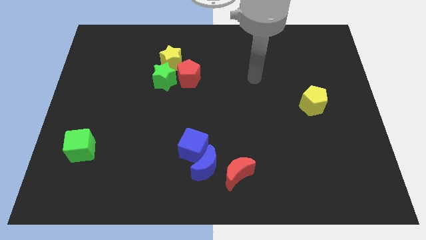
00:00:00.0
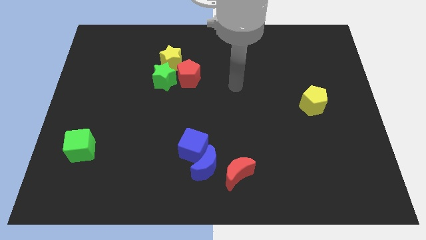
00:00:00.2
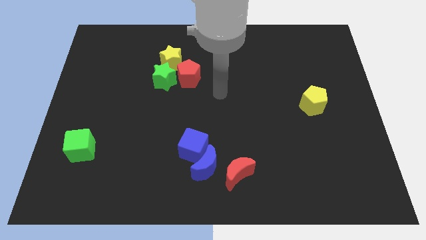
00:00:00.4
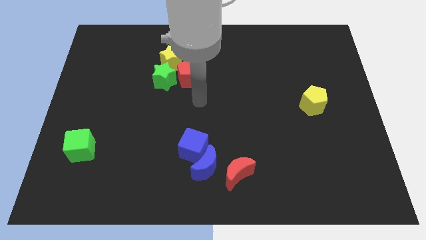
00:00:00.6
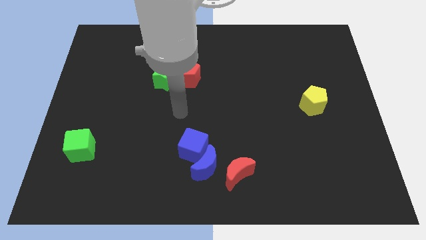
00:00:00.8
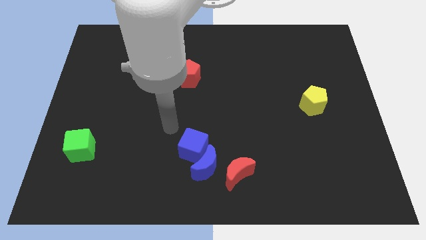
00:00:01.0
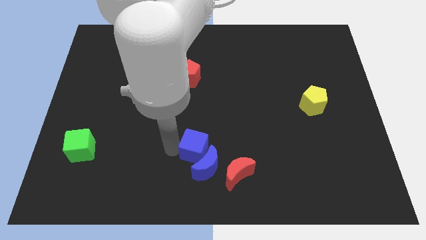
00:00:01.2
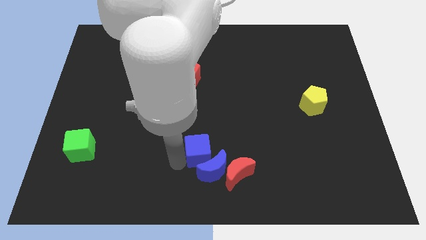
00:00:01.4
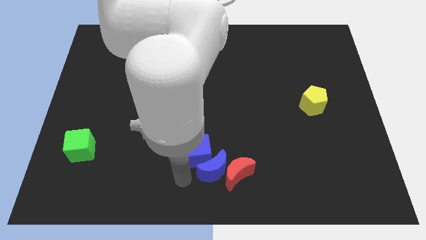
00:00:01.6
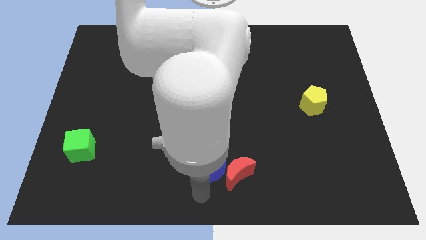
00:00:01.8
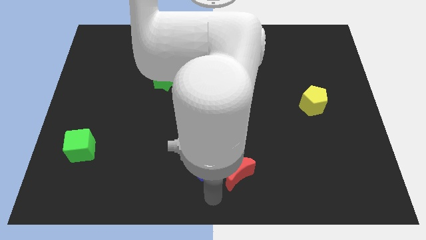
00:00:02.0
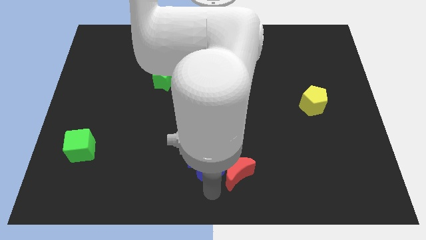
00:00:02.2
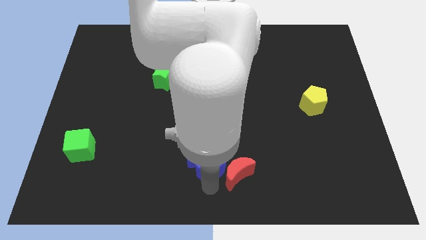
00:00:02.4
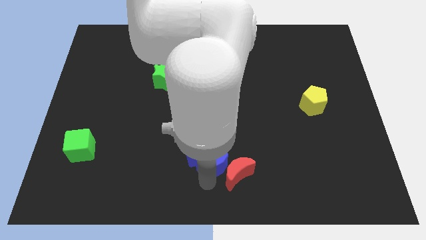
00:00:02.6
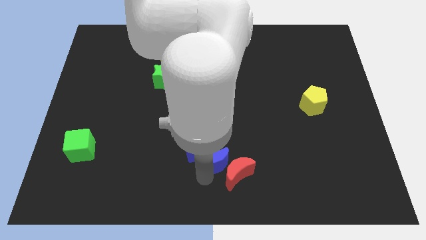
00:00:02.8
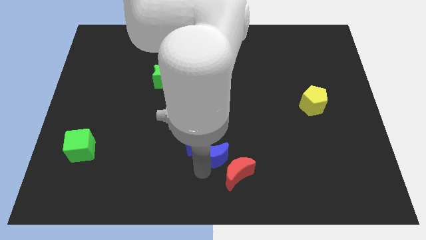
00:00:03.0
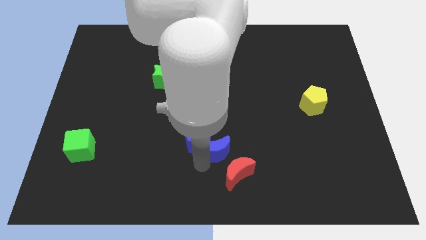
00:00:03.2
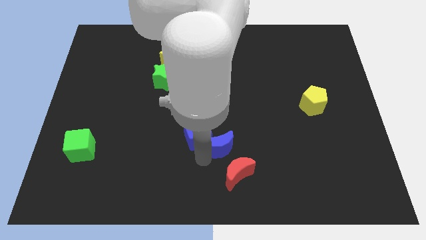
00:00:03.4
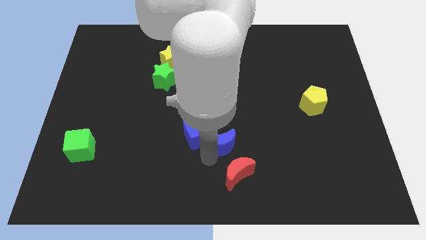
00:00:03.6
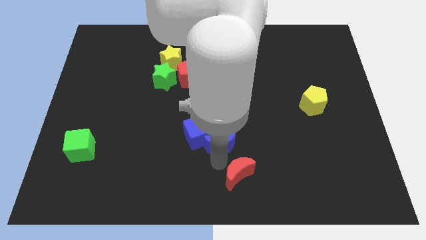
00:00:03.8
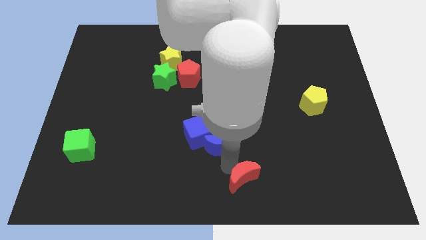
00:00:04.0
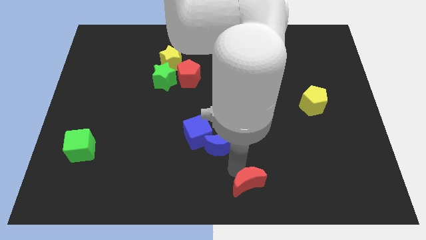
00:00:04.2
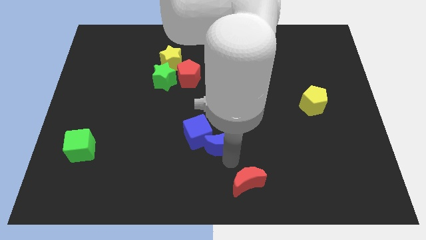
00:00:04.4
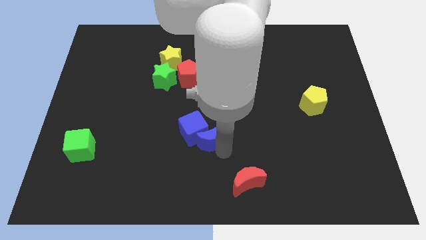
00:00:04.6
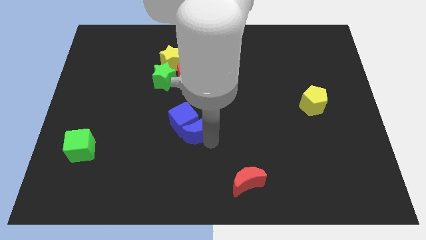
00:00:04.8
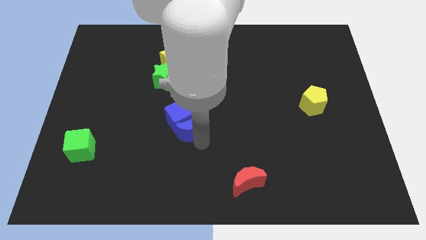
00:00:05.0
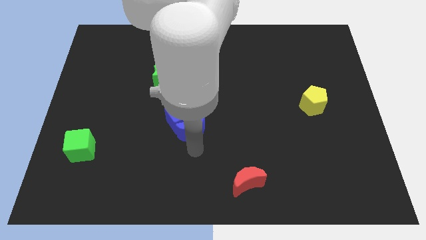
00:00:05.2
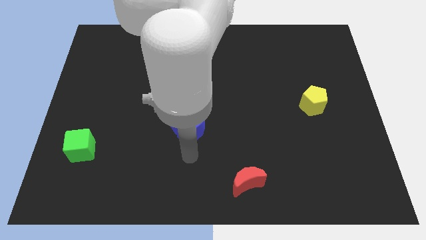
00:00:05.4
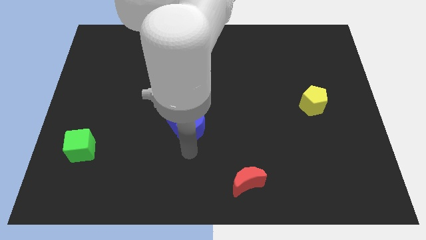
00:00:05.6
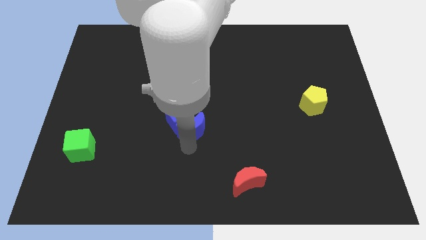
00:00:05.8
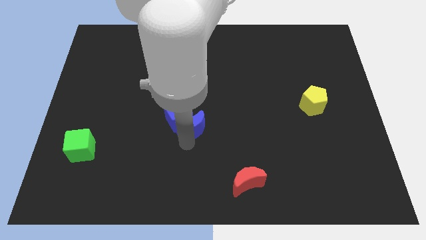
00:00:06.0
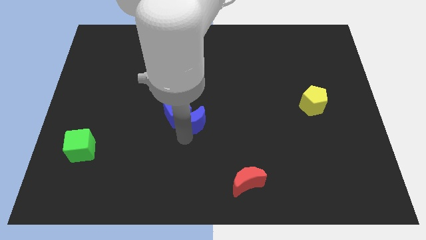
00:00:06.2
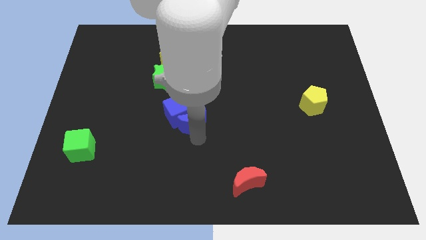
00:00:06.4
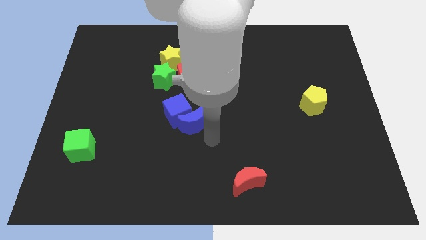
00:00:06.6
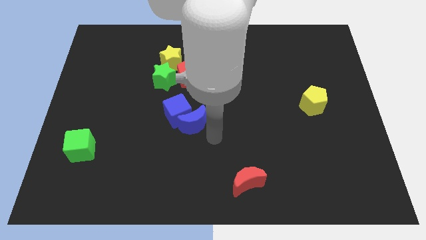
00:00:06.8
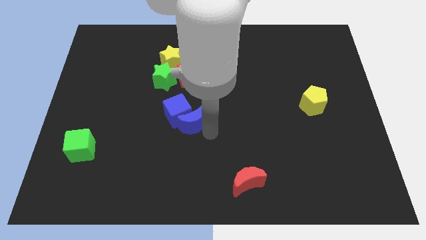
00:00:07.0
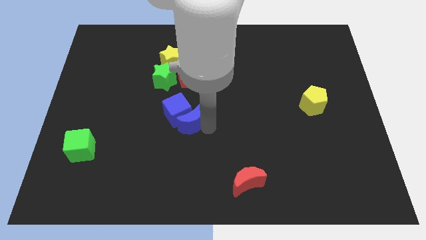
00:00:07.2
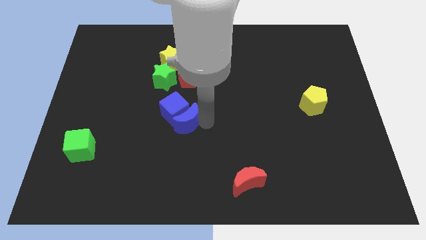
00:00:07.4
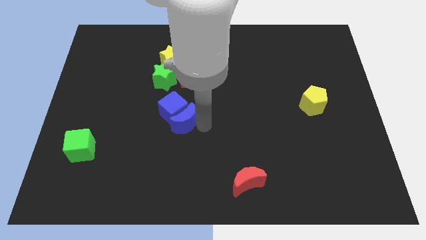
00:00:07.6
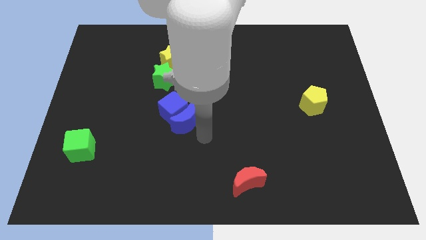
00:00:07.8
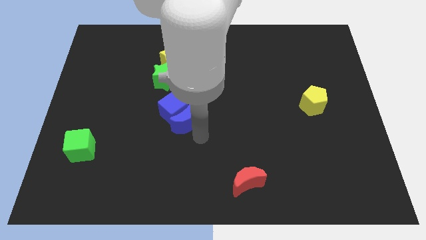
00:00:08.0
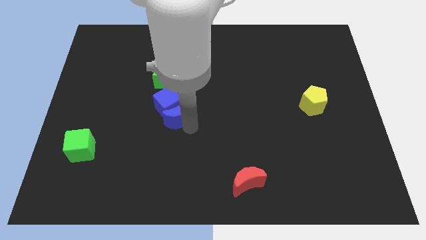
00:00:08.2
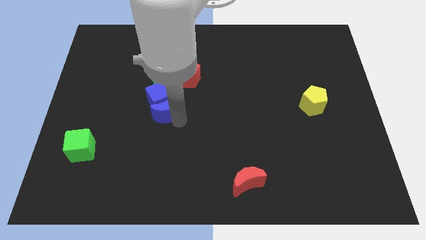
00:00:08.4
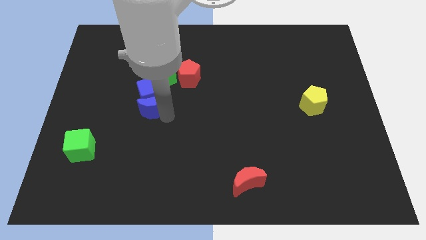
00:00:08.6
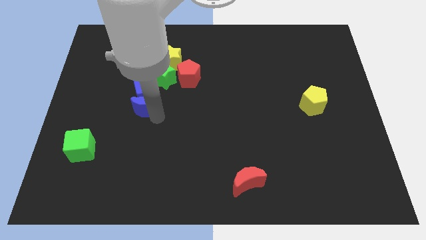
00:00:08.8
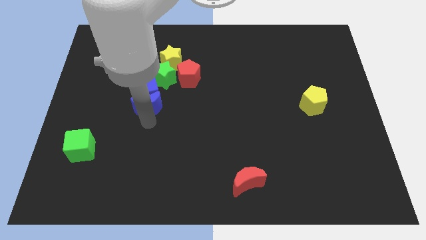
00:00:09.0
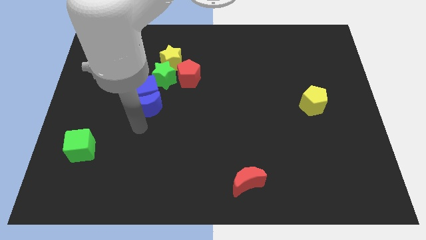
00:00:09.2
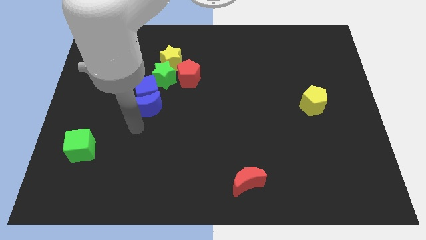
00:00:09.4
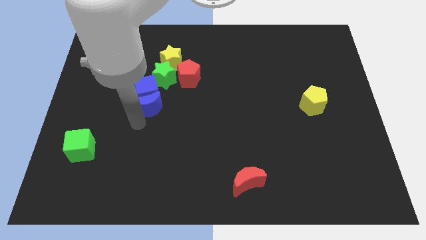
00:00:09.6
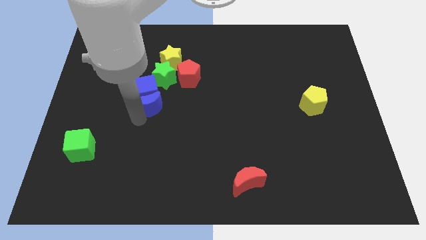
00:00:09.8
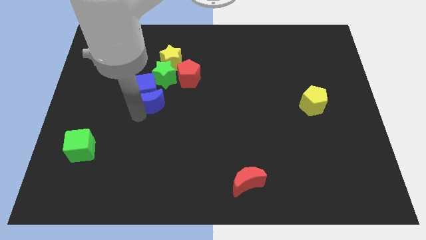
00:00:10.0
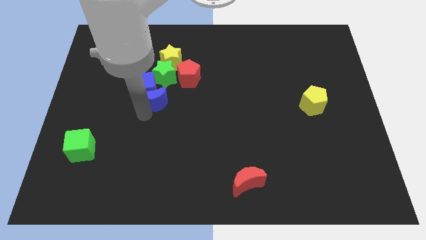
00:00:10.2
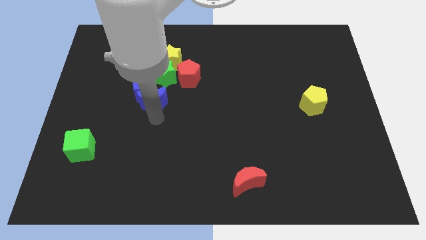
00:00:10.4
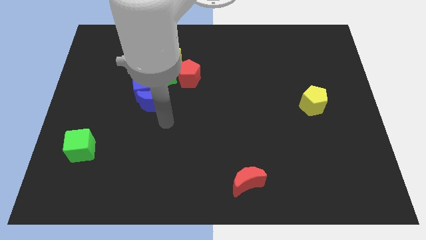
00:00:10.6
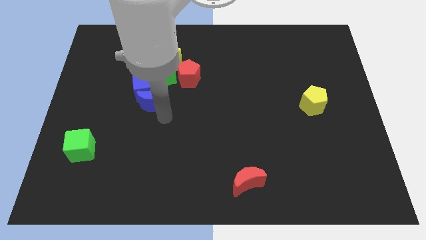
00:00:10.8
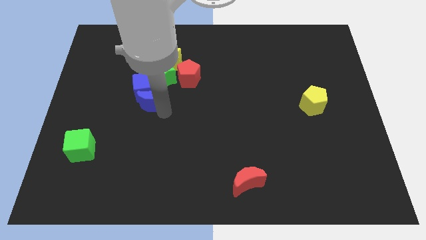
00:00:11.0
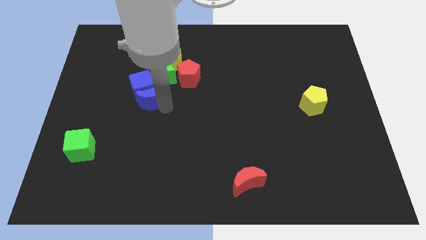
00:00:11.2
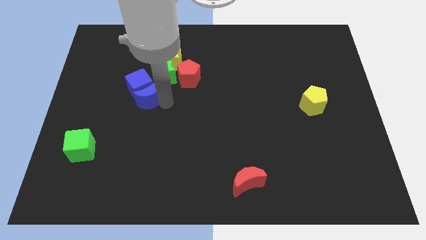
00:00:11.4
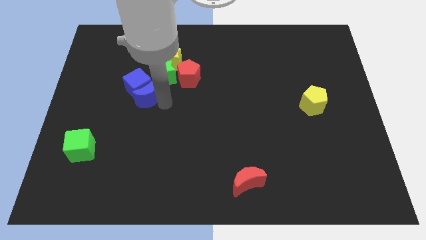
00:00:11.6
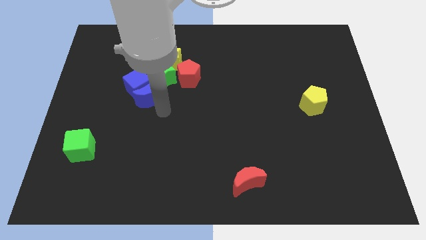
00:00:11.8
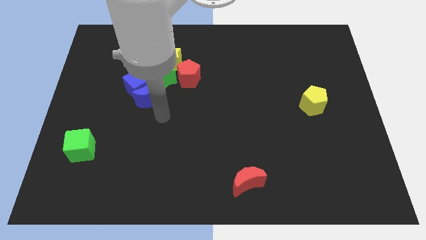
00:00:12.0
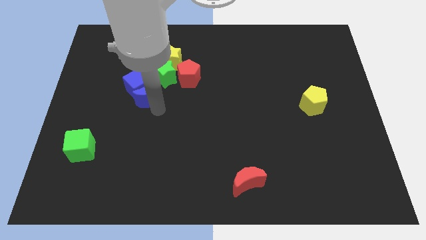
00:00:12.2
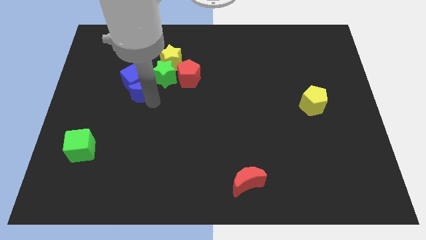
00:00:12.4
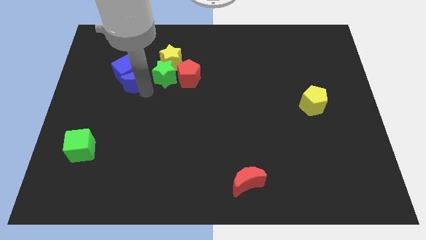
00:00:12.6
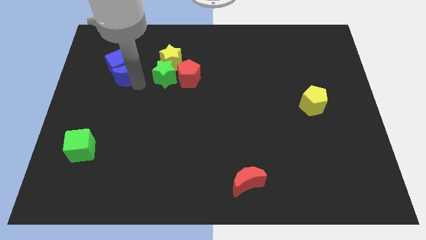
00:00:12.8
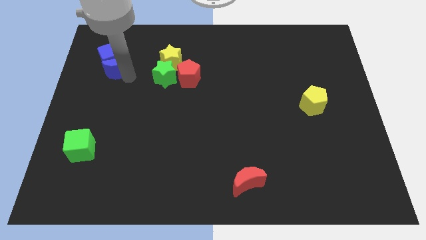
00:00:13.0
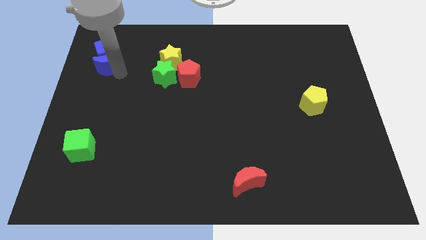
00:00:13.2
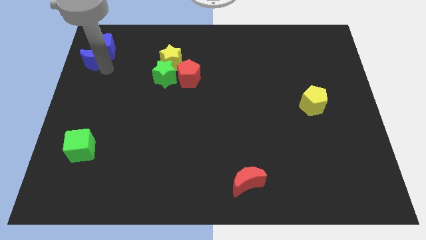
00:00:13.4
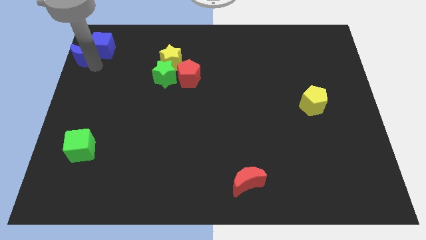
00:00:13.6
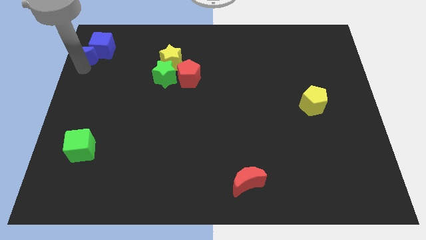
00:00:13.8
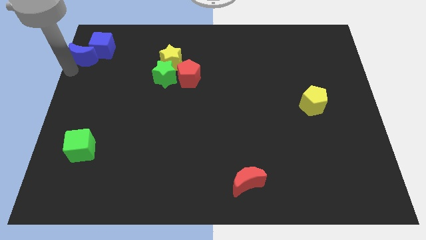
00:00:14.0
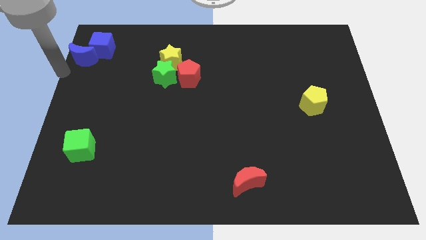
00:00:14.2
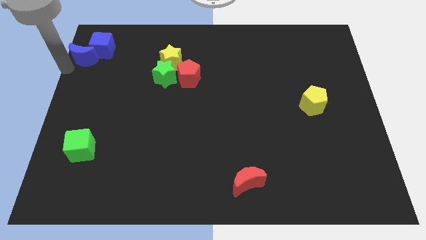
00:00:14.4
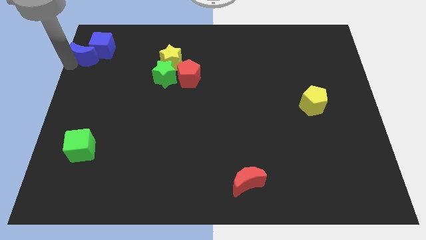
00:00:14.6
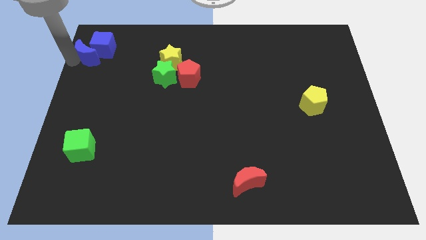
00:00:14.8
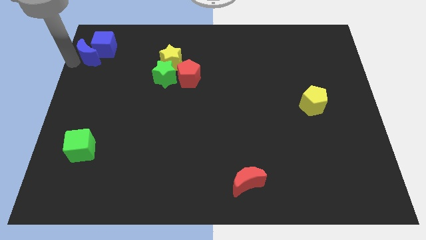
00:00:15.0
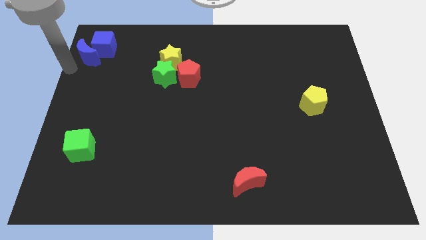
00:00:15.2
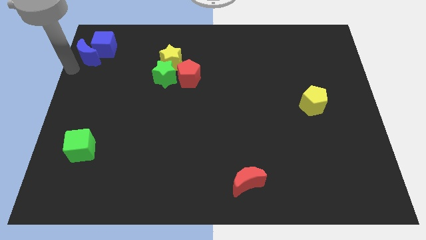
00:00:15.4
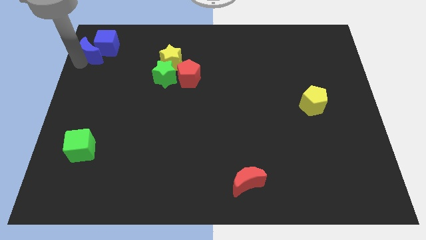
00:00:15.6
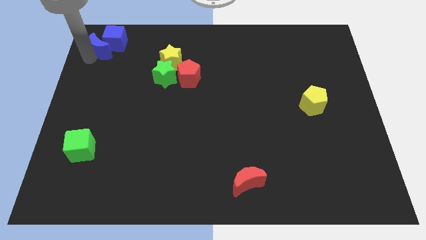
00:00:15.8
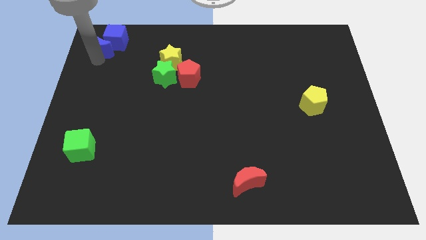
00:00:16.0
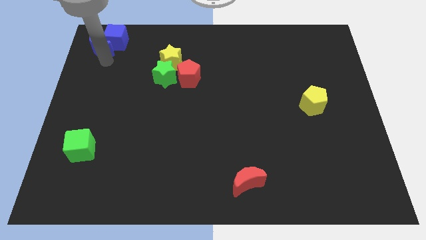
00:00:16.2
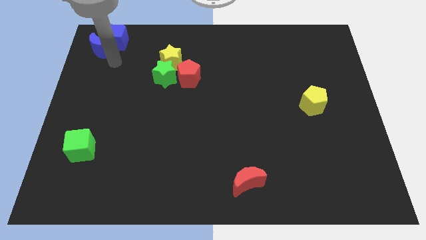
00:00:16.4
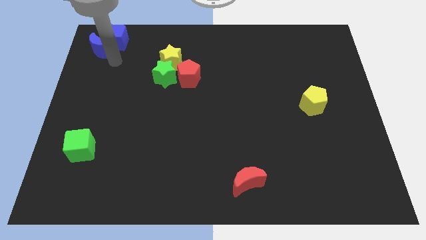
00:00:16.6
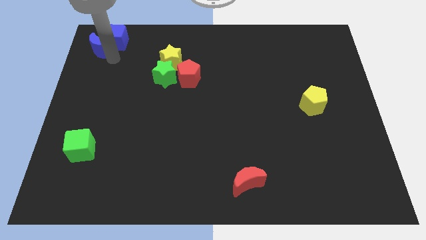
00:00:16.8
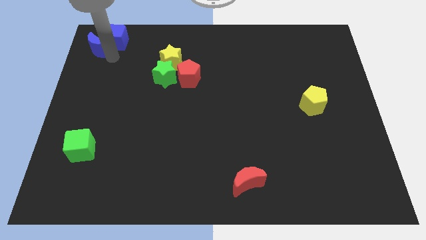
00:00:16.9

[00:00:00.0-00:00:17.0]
move the blue moon to the upper left corner
